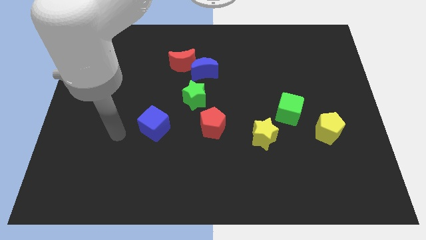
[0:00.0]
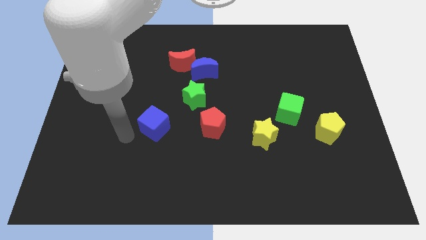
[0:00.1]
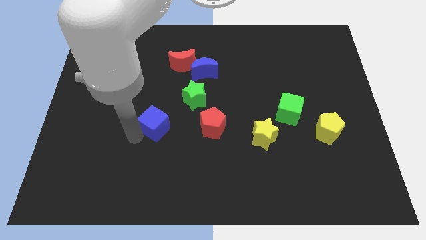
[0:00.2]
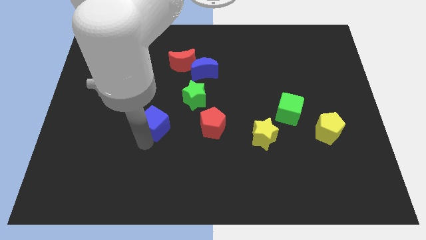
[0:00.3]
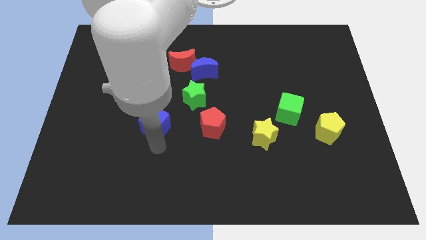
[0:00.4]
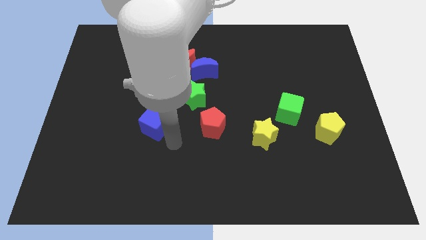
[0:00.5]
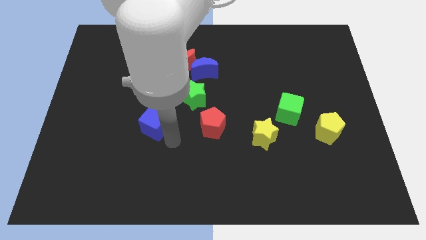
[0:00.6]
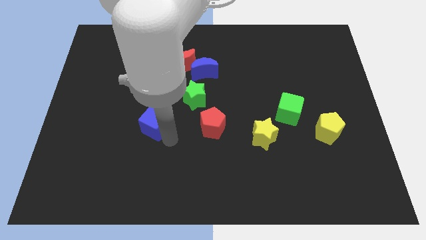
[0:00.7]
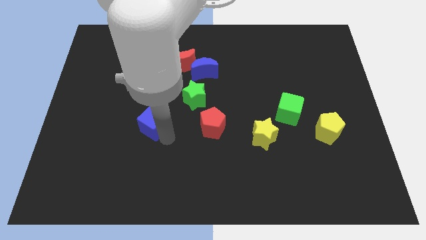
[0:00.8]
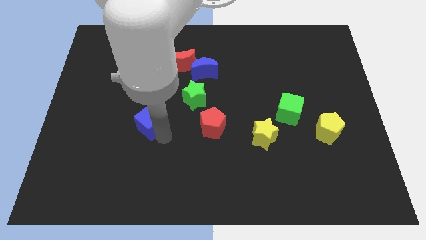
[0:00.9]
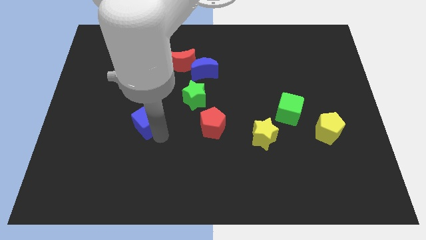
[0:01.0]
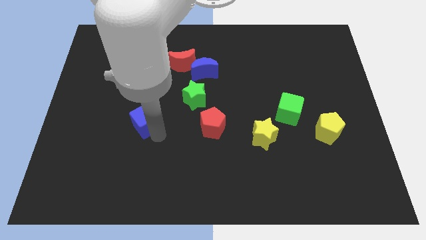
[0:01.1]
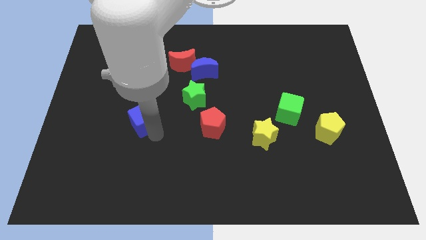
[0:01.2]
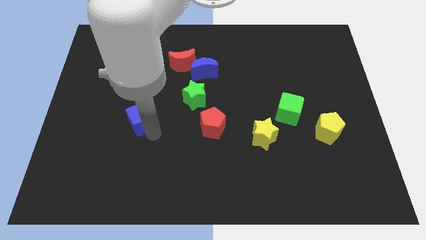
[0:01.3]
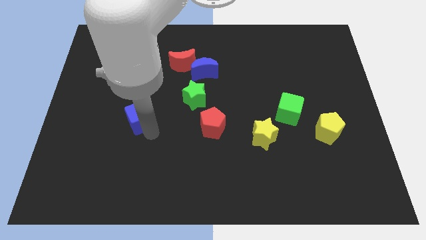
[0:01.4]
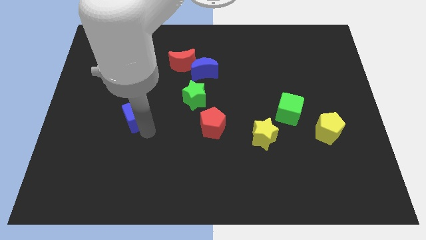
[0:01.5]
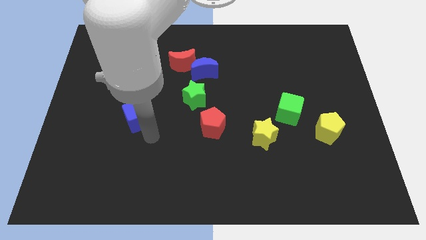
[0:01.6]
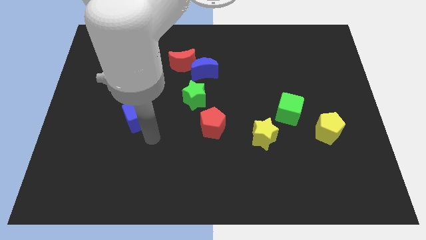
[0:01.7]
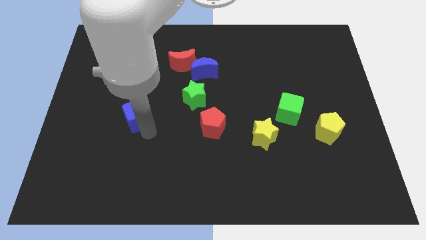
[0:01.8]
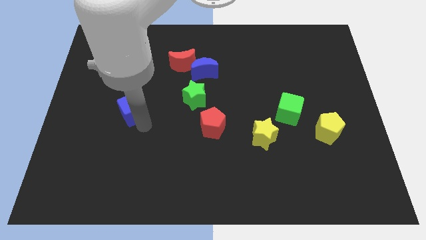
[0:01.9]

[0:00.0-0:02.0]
push the blue cube up and left somewhat

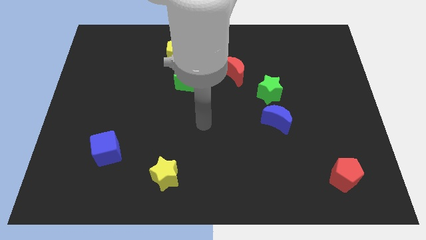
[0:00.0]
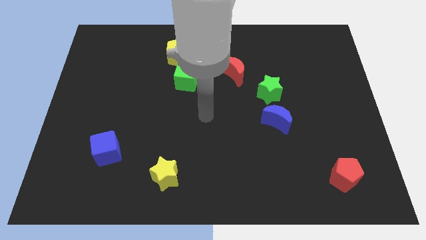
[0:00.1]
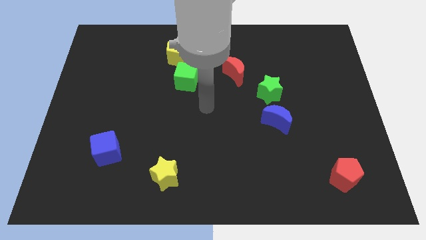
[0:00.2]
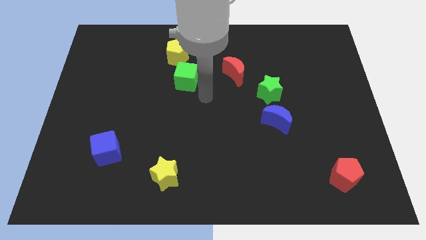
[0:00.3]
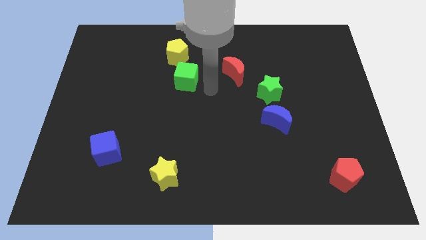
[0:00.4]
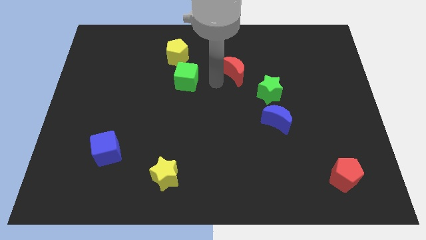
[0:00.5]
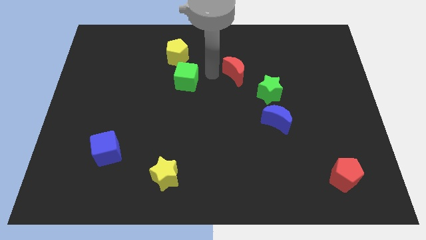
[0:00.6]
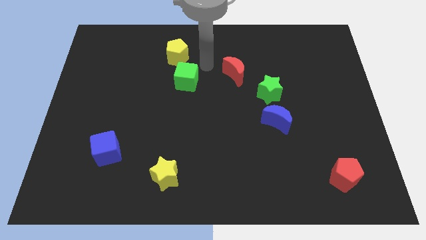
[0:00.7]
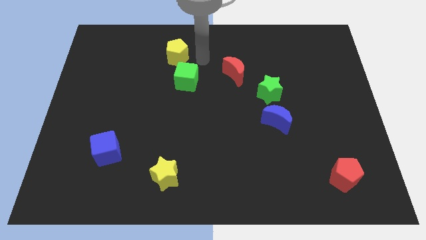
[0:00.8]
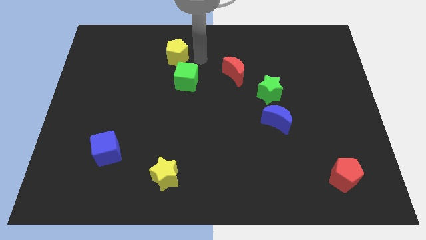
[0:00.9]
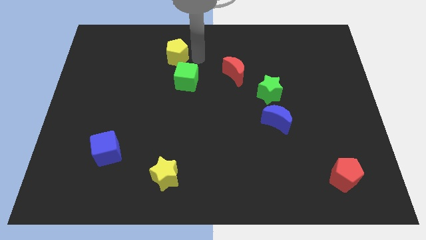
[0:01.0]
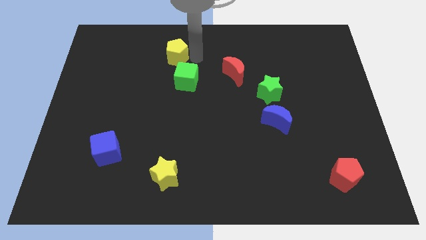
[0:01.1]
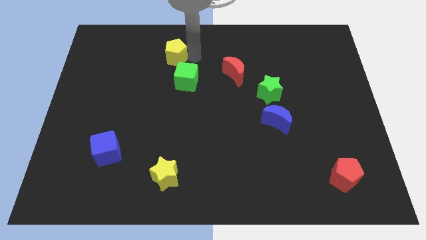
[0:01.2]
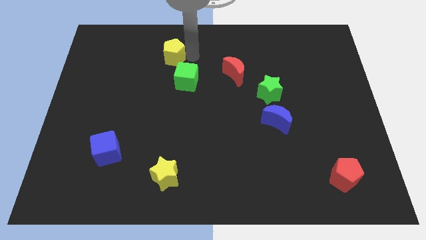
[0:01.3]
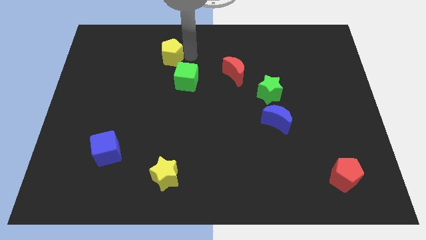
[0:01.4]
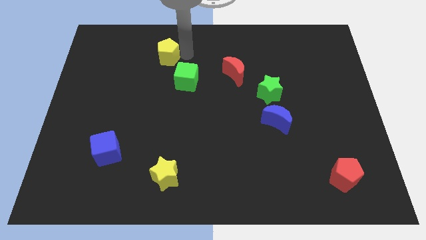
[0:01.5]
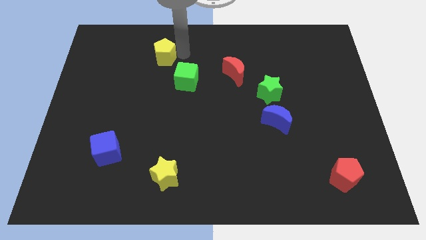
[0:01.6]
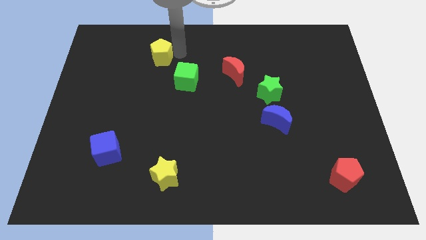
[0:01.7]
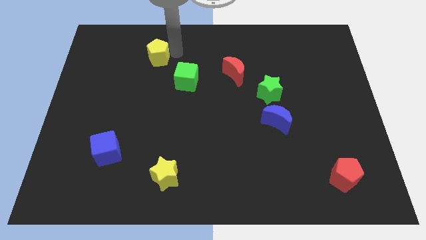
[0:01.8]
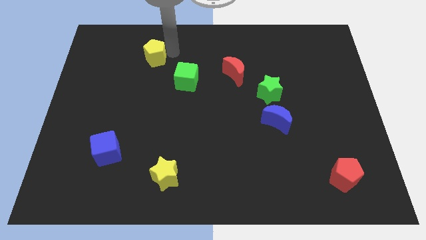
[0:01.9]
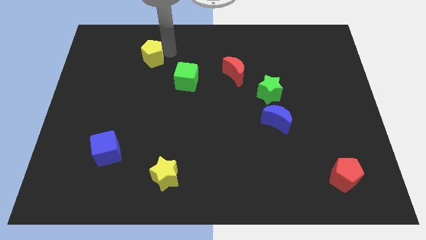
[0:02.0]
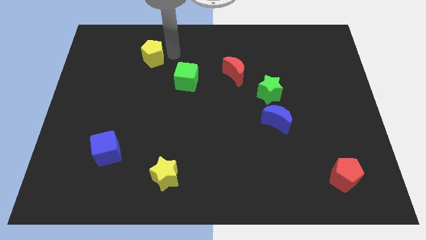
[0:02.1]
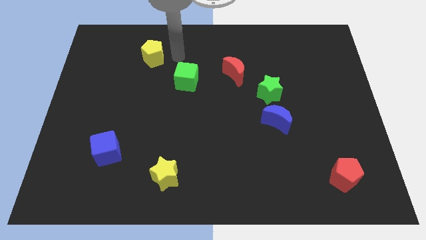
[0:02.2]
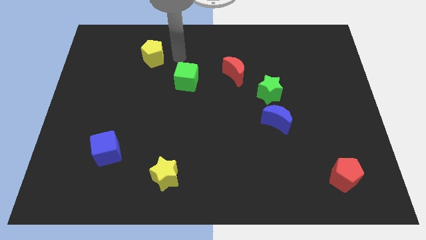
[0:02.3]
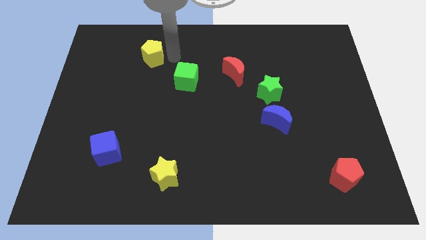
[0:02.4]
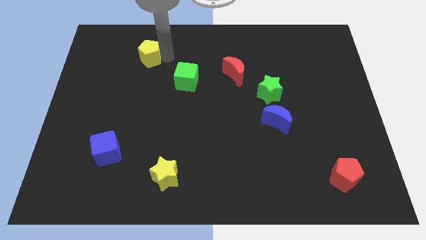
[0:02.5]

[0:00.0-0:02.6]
slightly slide the yellow pentagon to the left

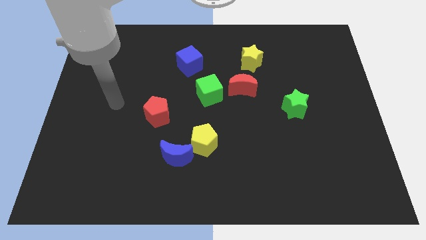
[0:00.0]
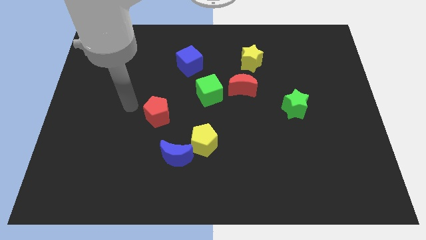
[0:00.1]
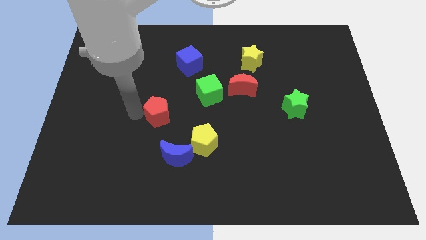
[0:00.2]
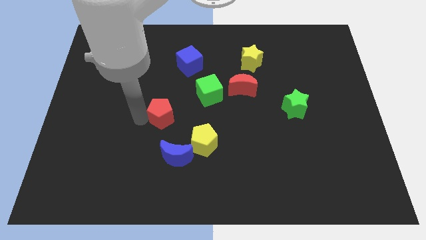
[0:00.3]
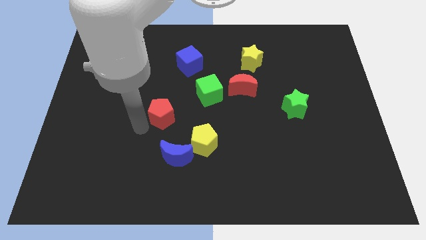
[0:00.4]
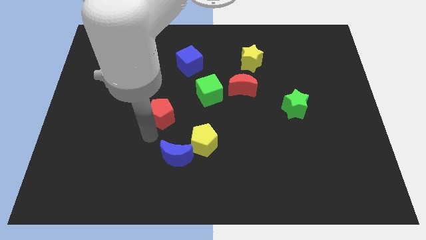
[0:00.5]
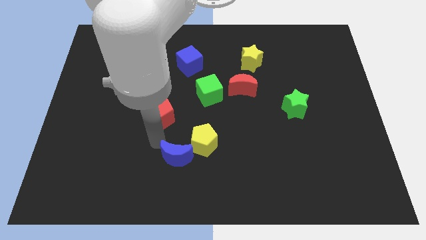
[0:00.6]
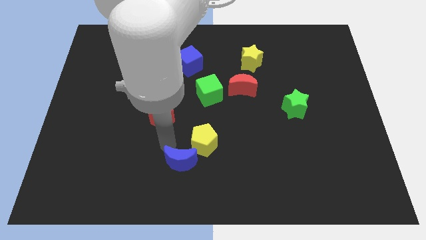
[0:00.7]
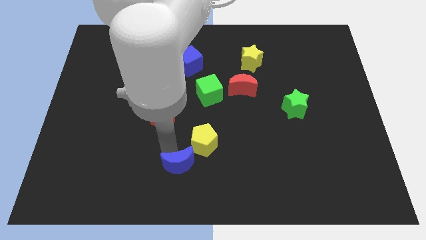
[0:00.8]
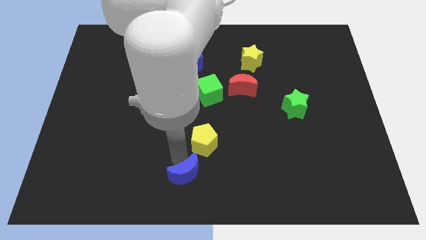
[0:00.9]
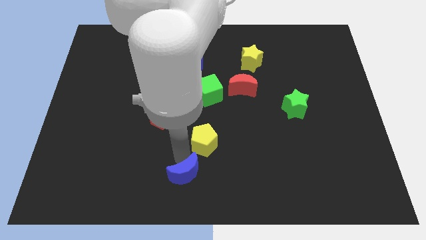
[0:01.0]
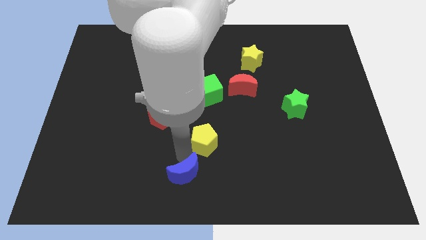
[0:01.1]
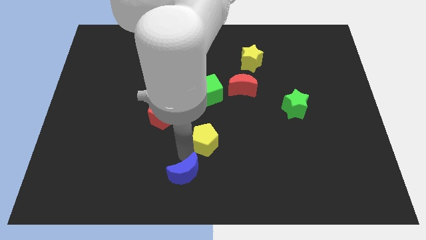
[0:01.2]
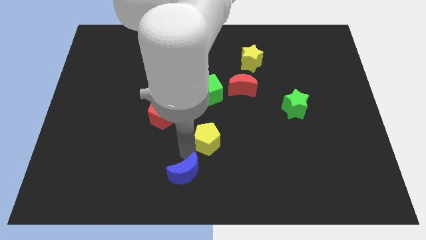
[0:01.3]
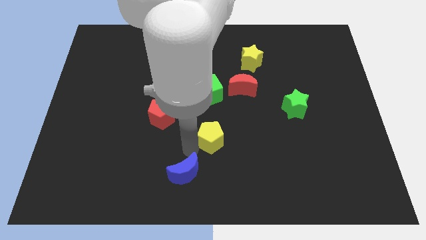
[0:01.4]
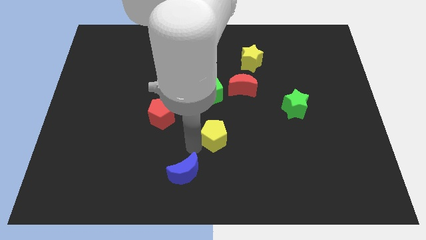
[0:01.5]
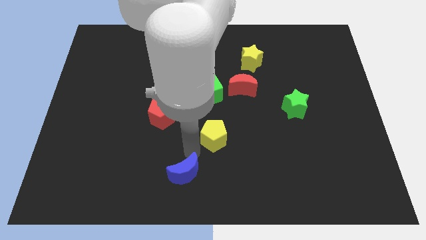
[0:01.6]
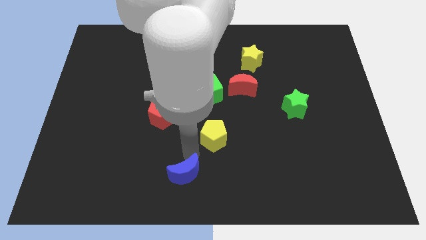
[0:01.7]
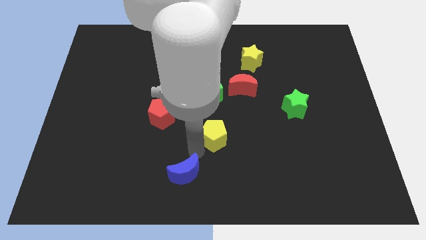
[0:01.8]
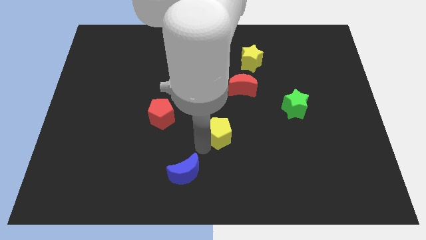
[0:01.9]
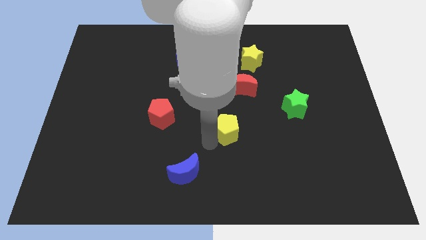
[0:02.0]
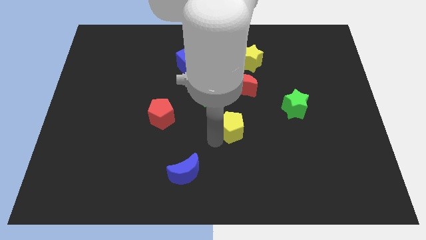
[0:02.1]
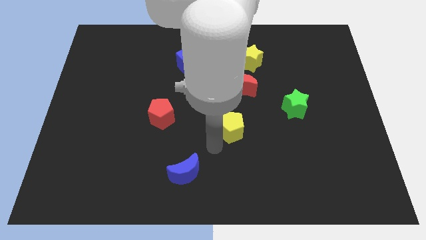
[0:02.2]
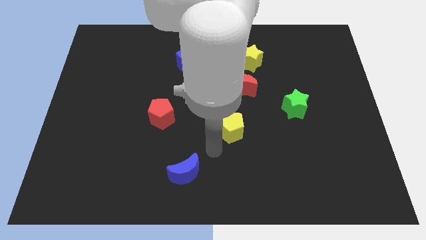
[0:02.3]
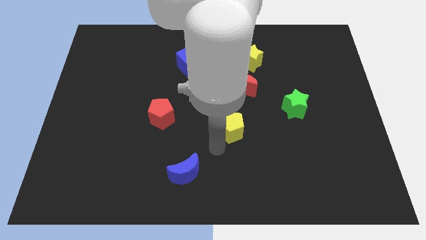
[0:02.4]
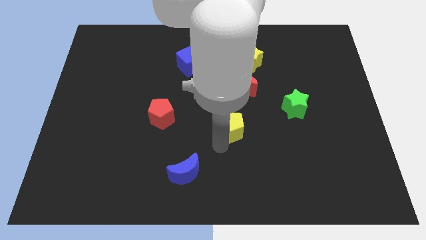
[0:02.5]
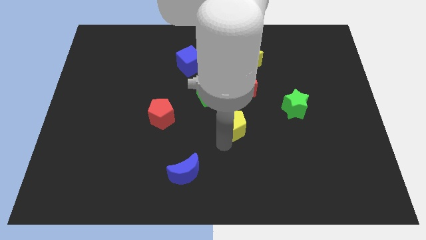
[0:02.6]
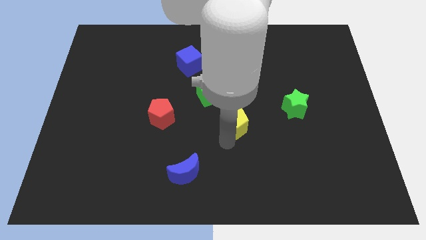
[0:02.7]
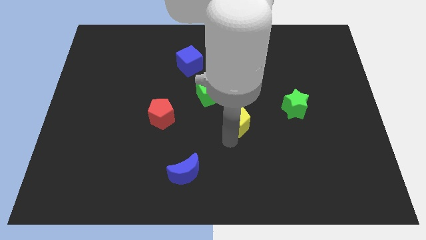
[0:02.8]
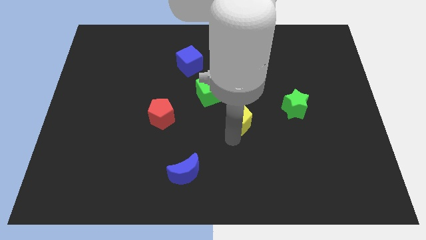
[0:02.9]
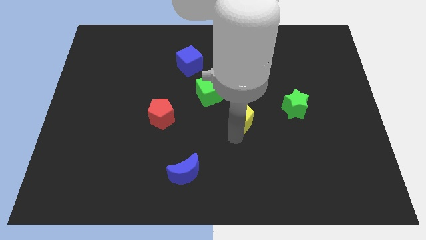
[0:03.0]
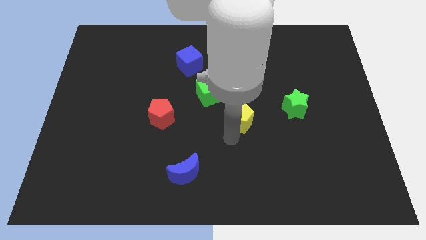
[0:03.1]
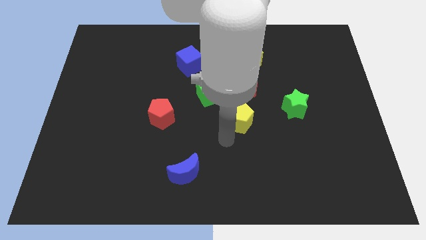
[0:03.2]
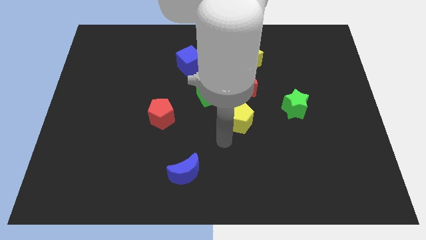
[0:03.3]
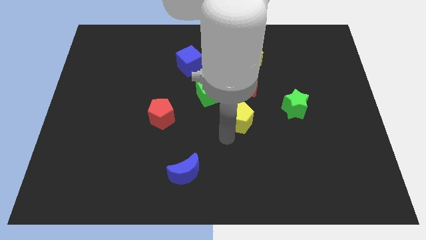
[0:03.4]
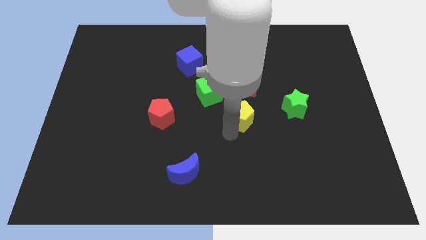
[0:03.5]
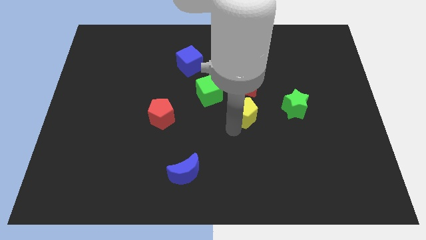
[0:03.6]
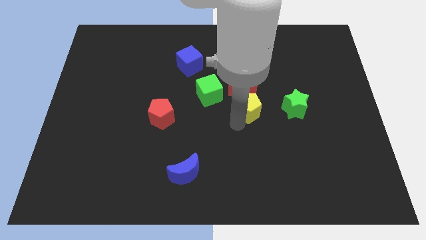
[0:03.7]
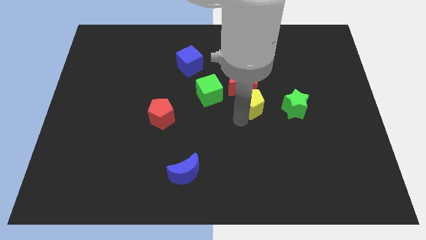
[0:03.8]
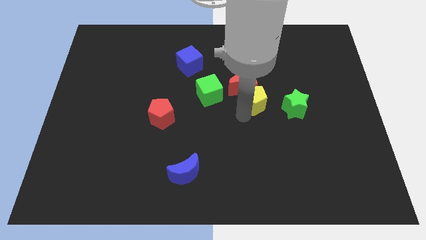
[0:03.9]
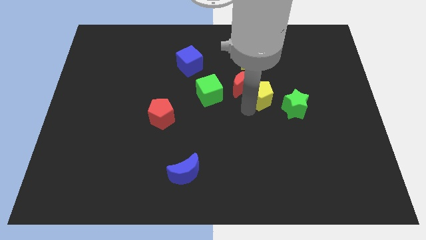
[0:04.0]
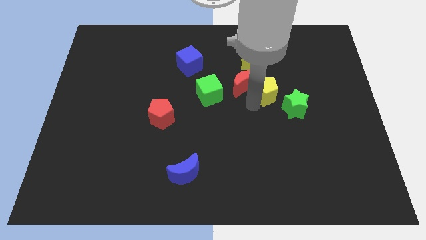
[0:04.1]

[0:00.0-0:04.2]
push the yellow pentagon up and to the right
